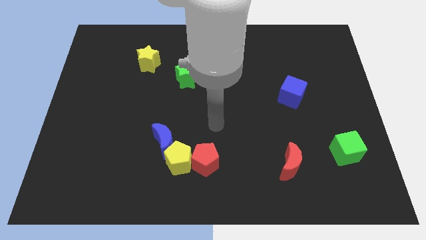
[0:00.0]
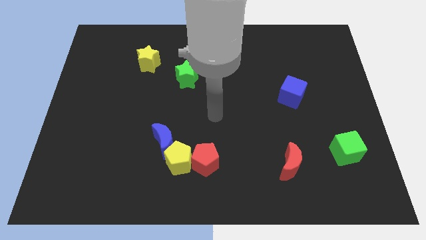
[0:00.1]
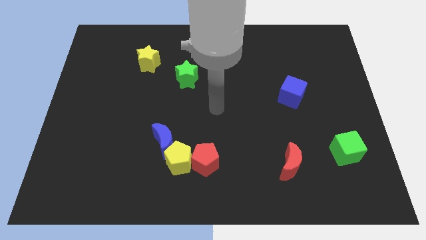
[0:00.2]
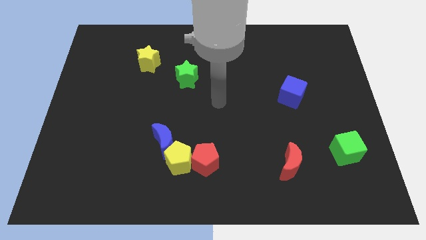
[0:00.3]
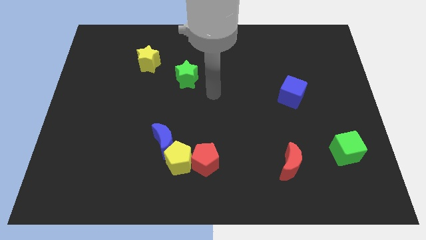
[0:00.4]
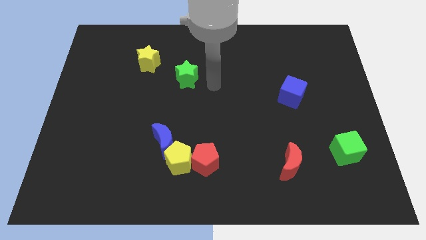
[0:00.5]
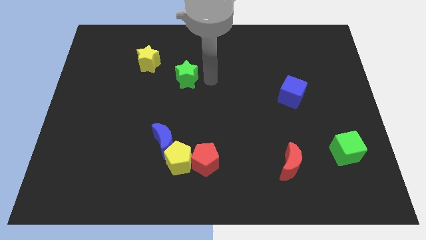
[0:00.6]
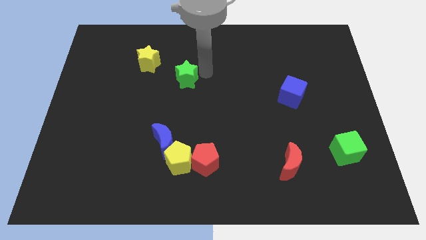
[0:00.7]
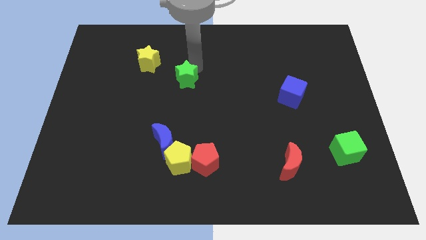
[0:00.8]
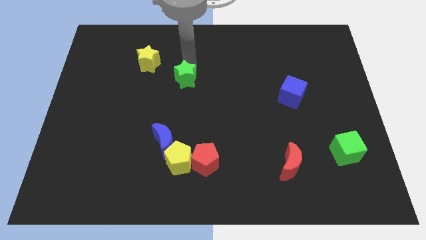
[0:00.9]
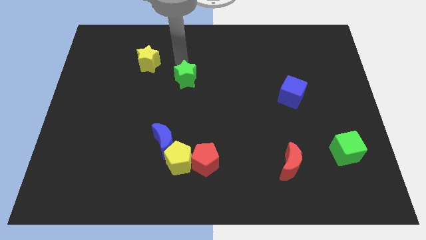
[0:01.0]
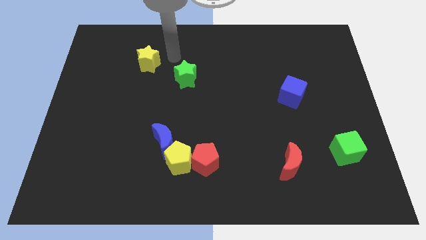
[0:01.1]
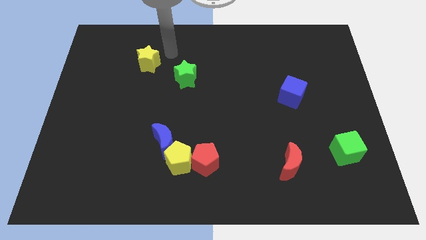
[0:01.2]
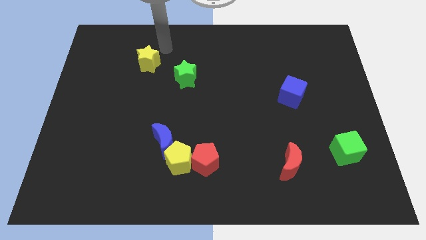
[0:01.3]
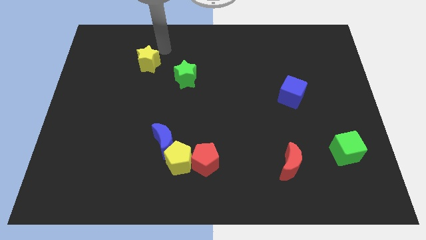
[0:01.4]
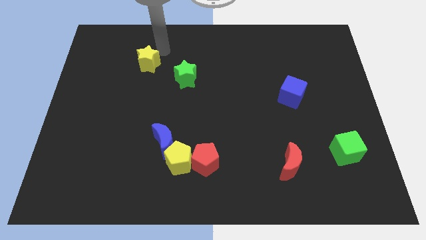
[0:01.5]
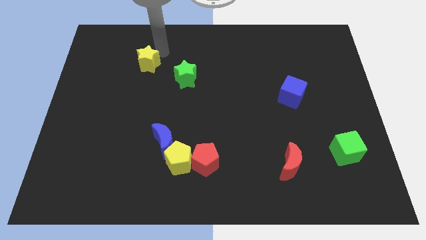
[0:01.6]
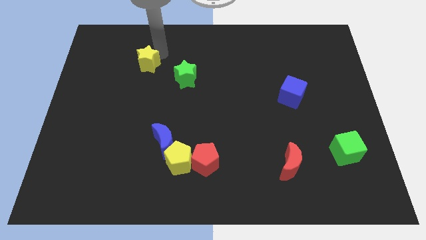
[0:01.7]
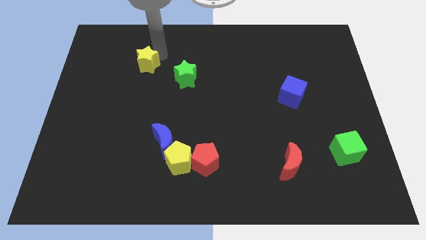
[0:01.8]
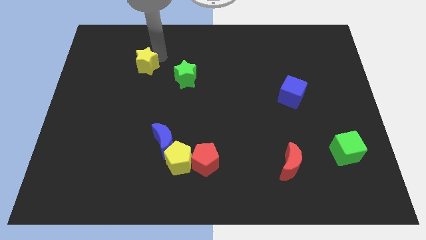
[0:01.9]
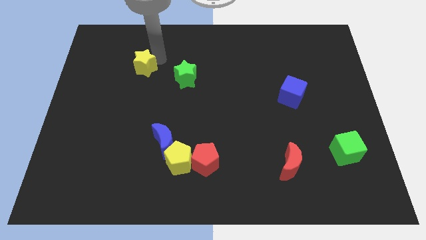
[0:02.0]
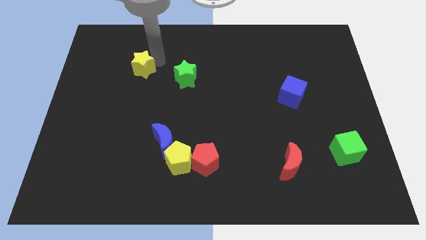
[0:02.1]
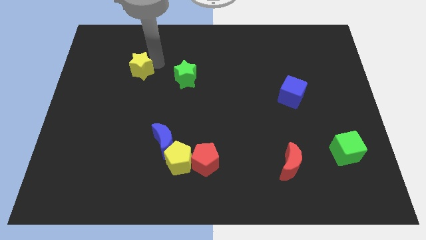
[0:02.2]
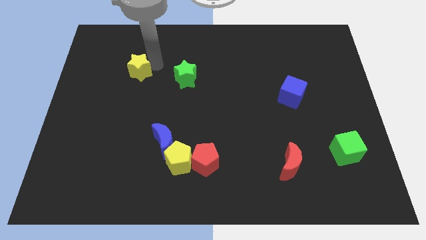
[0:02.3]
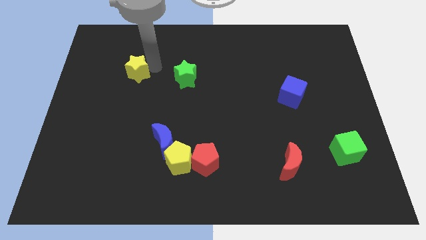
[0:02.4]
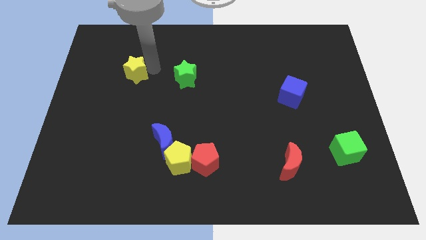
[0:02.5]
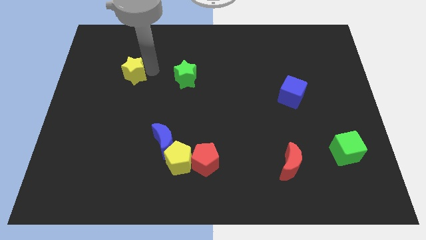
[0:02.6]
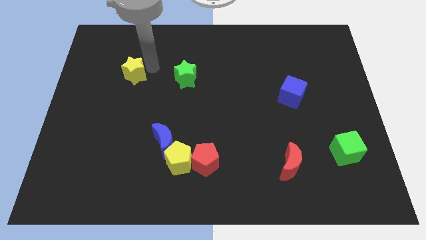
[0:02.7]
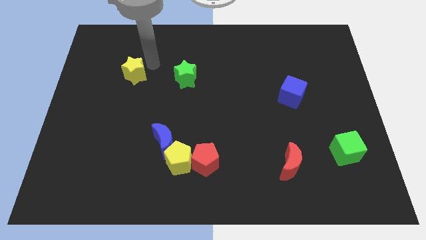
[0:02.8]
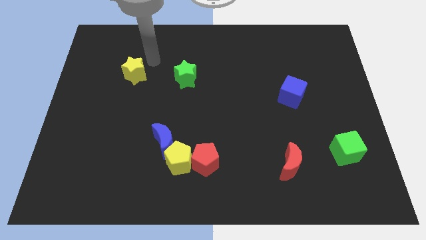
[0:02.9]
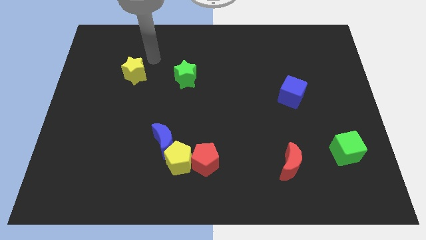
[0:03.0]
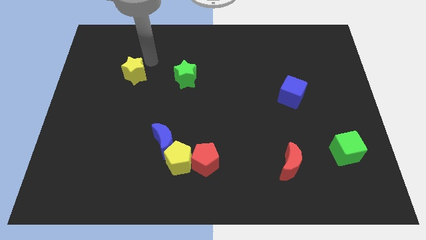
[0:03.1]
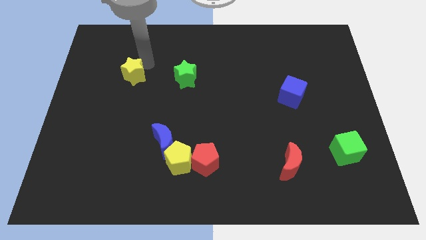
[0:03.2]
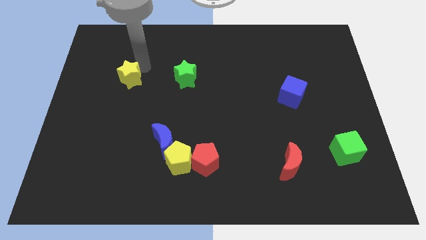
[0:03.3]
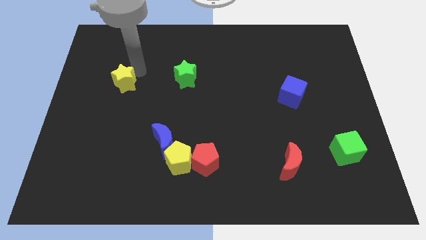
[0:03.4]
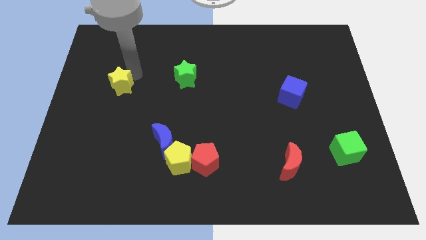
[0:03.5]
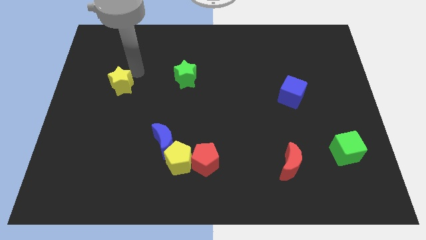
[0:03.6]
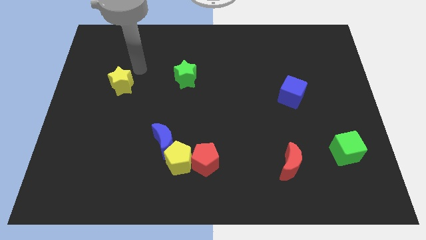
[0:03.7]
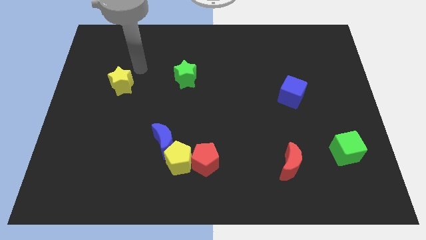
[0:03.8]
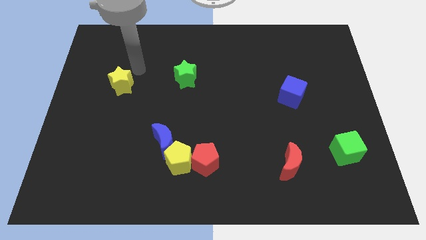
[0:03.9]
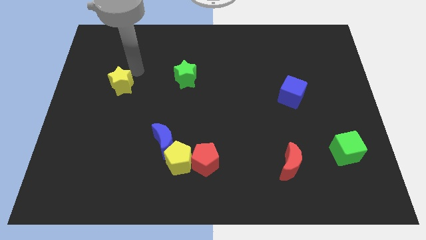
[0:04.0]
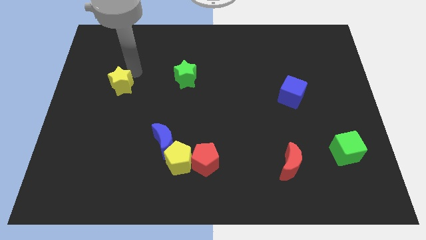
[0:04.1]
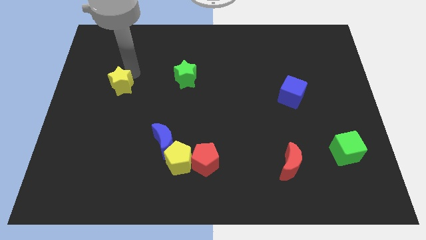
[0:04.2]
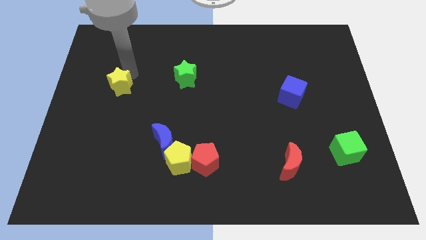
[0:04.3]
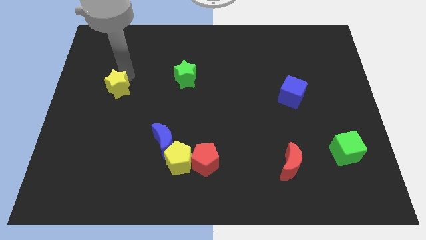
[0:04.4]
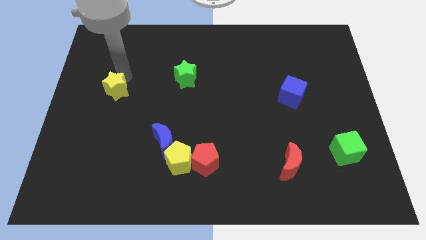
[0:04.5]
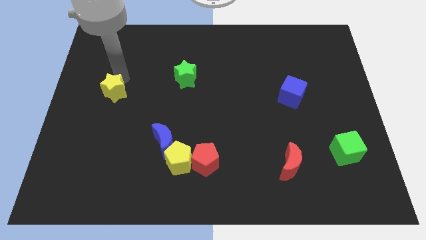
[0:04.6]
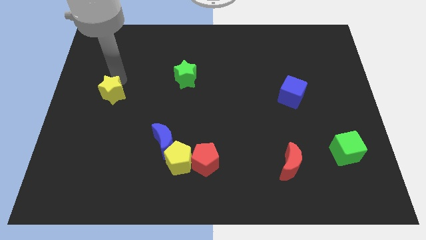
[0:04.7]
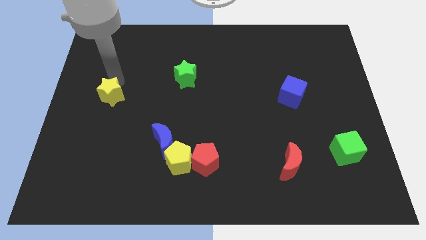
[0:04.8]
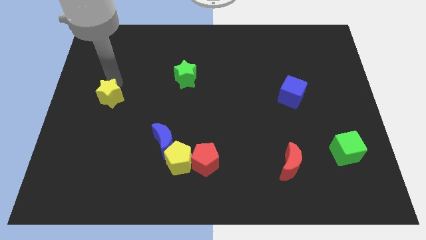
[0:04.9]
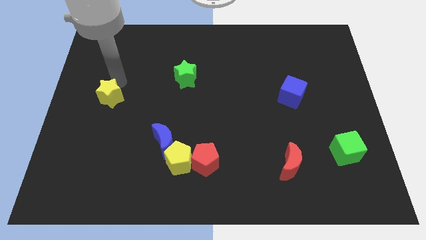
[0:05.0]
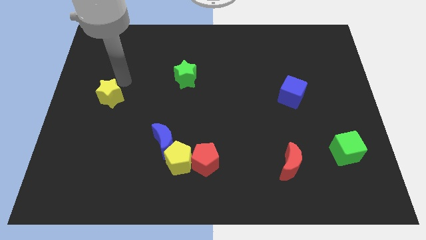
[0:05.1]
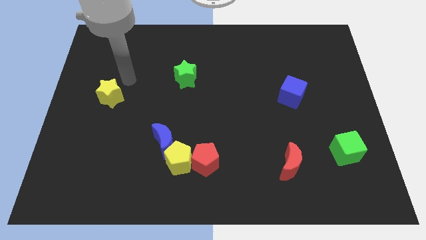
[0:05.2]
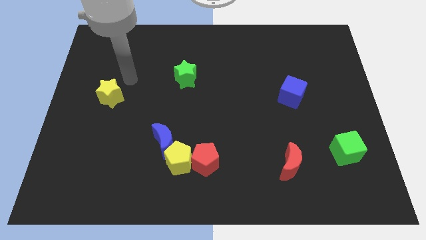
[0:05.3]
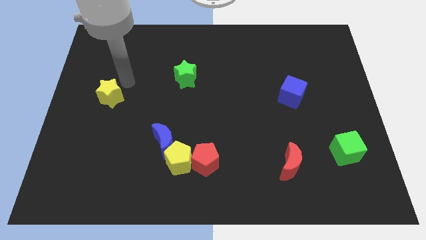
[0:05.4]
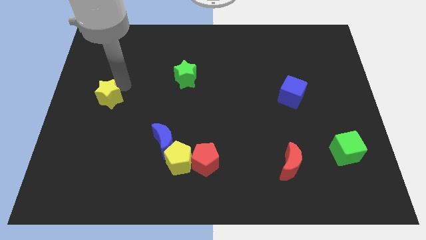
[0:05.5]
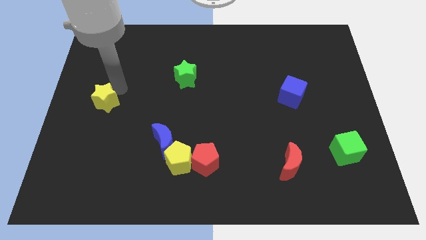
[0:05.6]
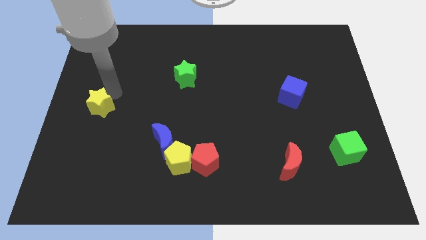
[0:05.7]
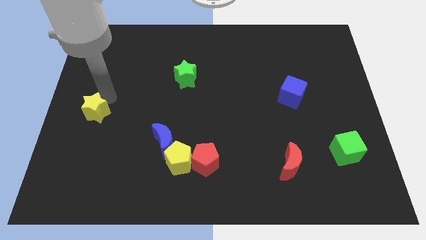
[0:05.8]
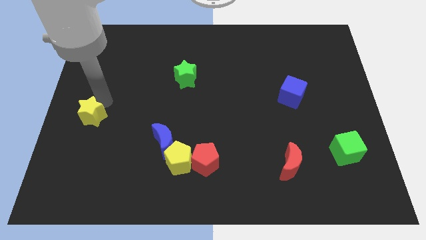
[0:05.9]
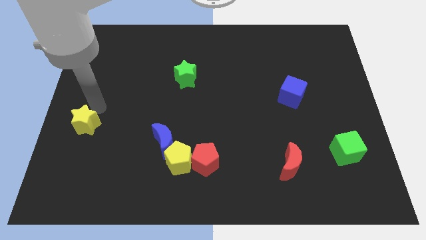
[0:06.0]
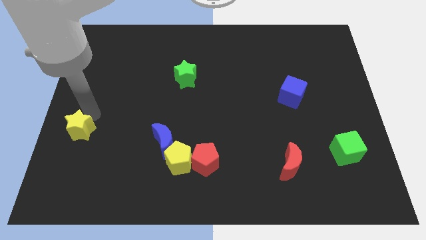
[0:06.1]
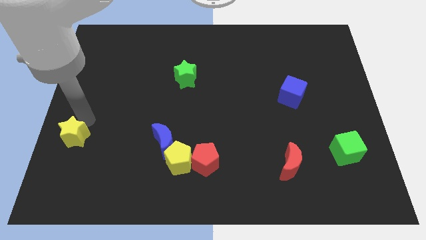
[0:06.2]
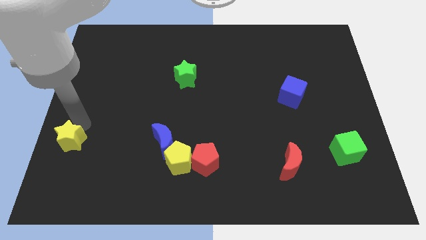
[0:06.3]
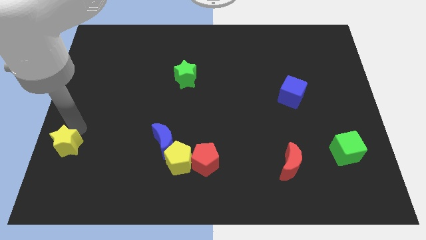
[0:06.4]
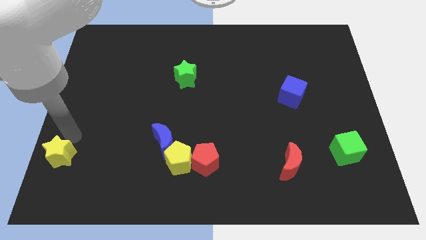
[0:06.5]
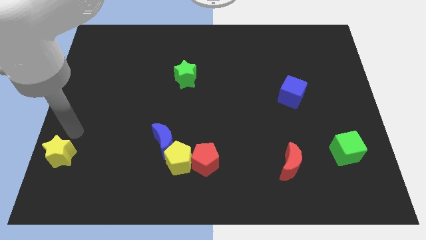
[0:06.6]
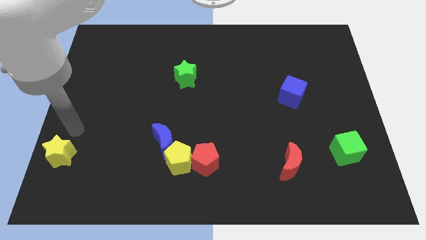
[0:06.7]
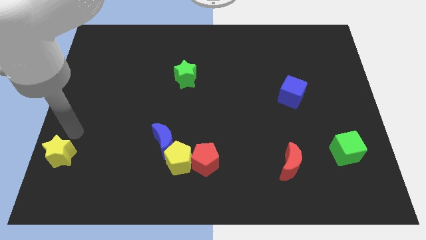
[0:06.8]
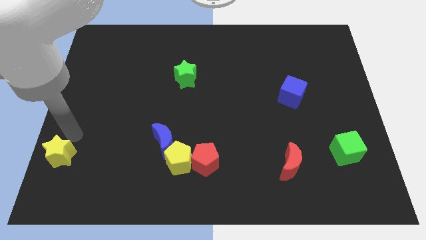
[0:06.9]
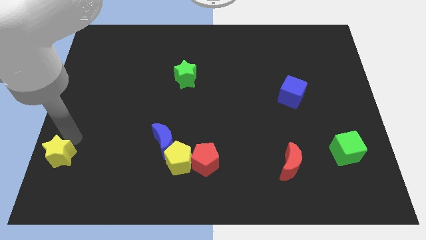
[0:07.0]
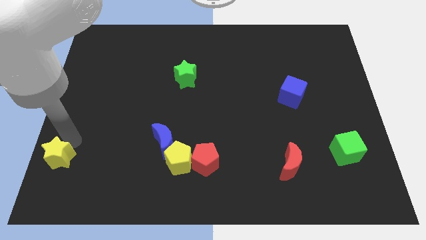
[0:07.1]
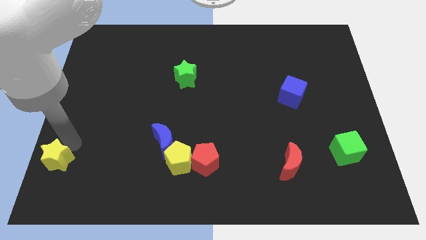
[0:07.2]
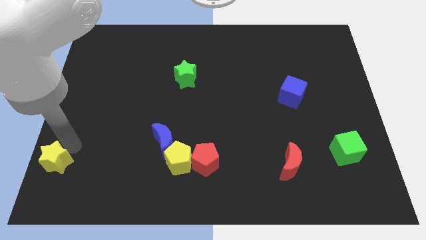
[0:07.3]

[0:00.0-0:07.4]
move the yellow star to the bottom left
